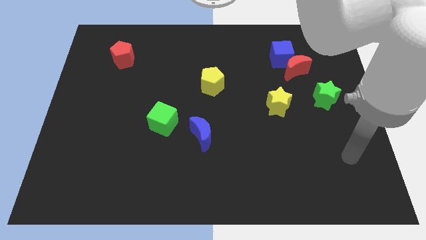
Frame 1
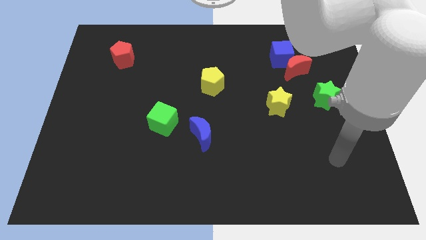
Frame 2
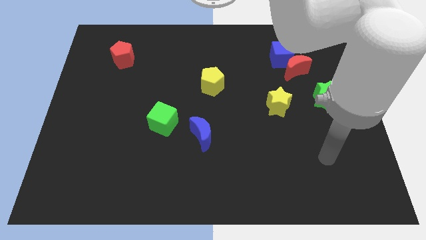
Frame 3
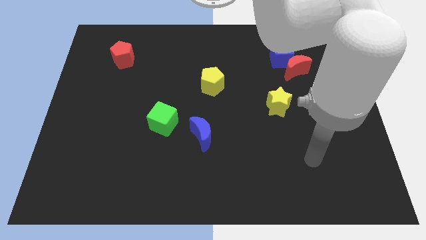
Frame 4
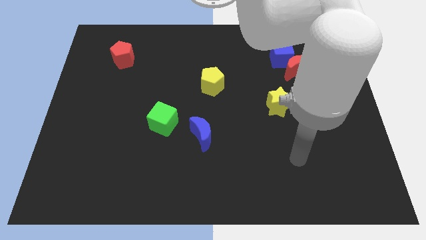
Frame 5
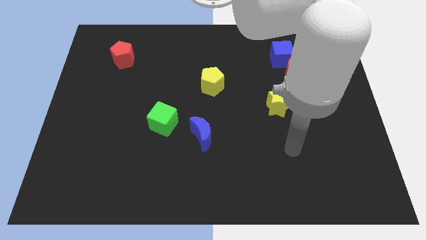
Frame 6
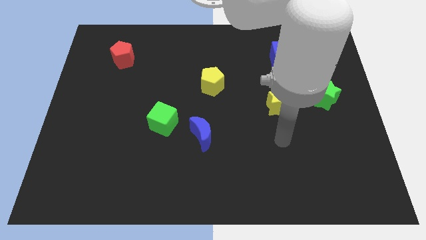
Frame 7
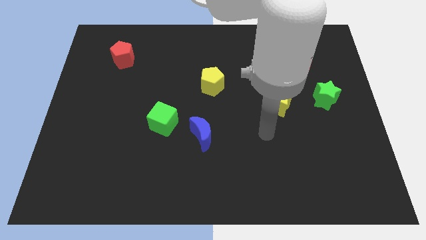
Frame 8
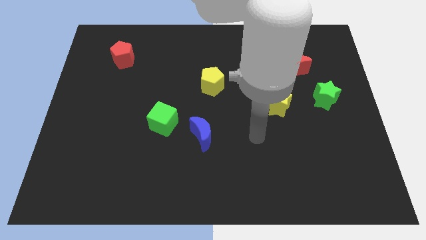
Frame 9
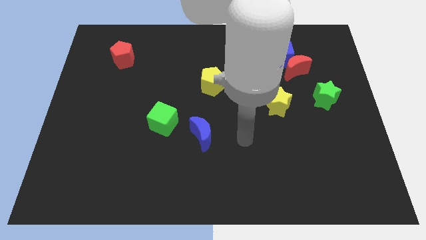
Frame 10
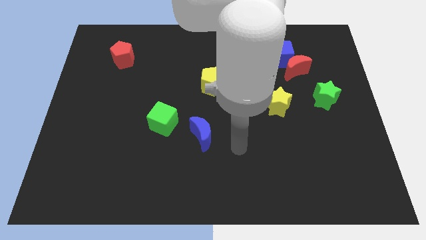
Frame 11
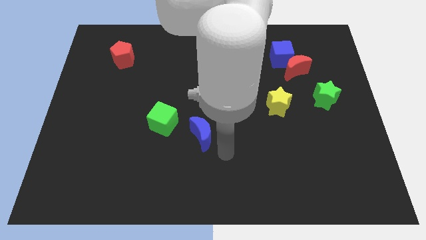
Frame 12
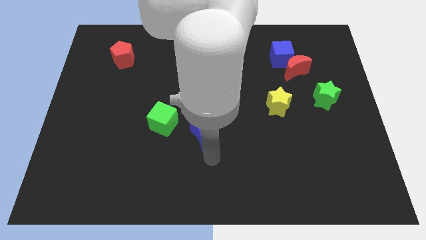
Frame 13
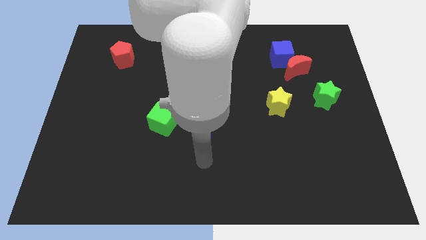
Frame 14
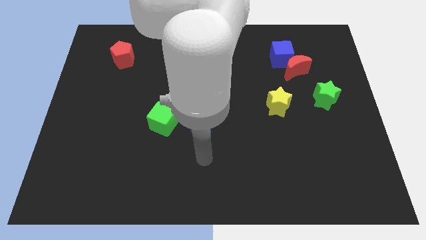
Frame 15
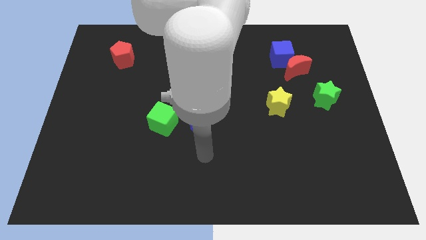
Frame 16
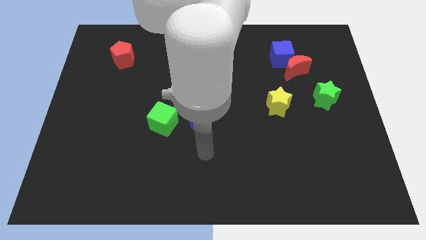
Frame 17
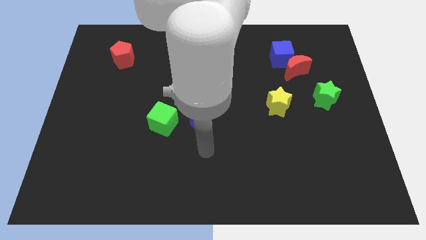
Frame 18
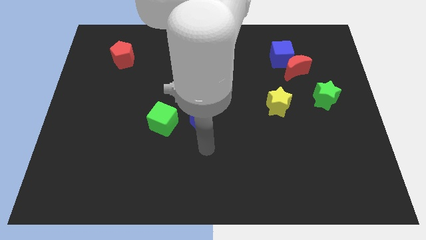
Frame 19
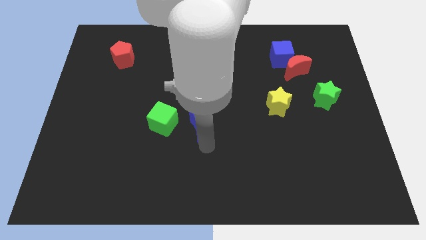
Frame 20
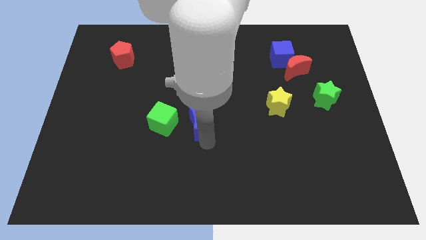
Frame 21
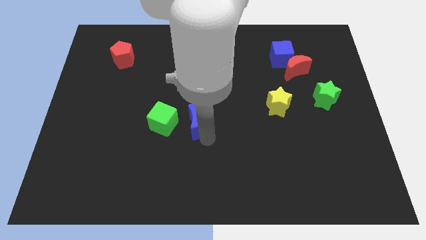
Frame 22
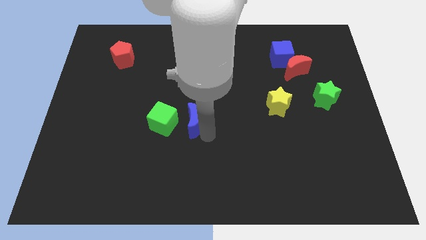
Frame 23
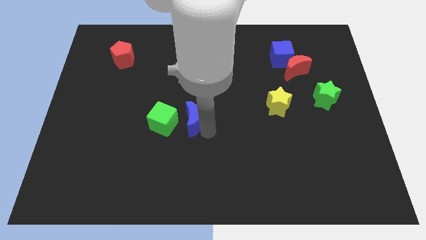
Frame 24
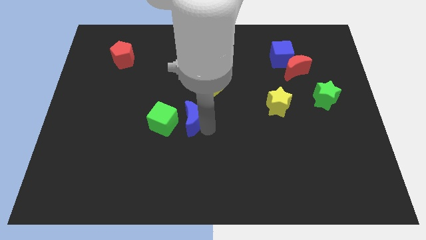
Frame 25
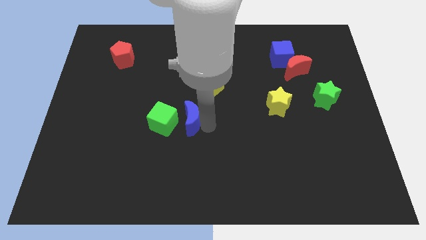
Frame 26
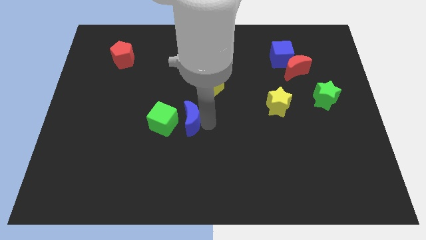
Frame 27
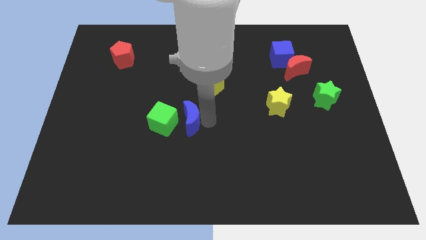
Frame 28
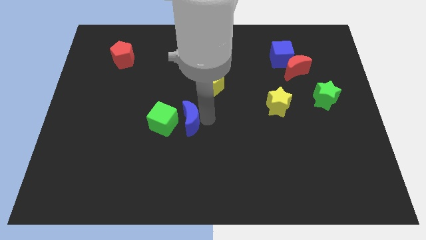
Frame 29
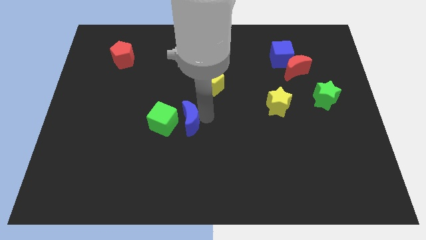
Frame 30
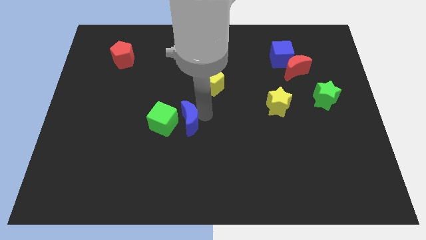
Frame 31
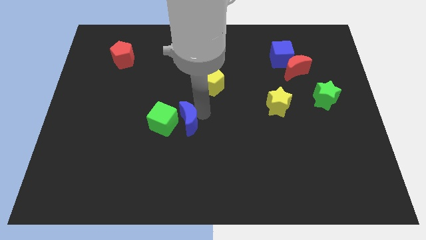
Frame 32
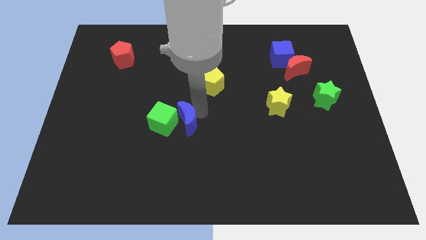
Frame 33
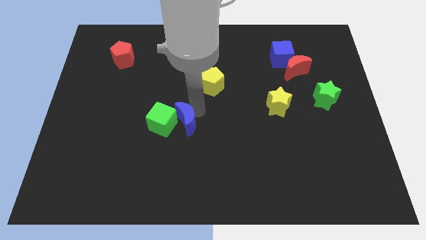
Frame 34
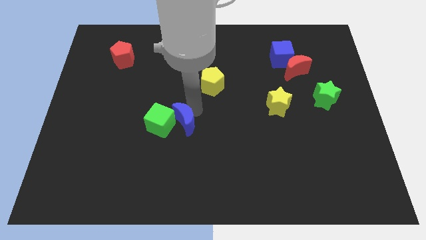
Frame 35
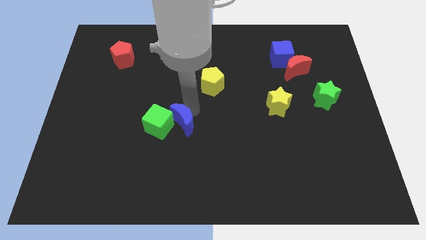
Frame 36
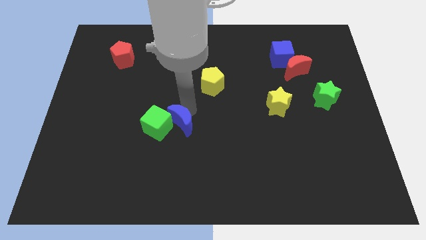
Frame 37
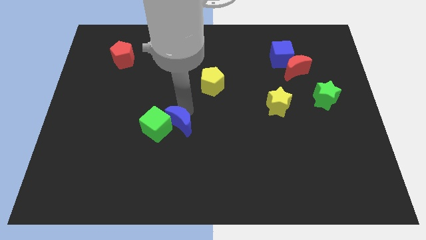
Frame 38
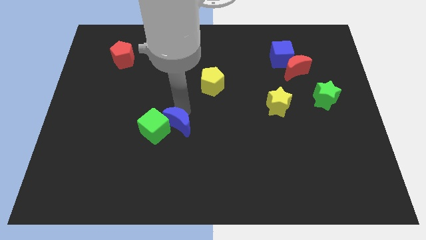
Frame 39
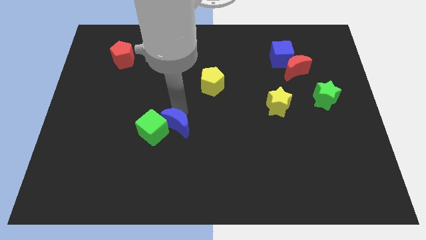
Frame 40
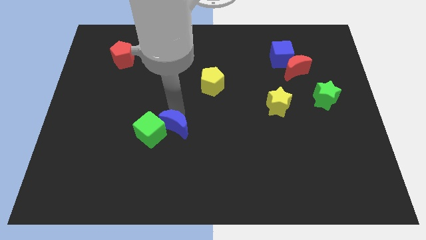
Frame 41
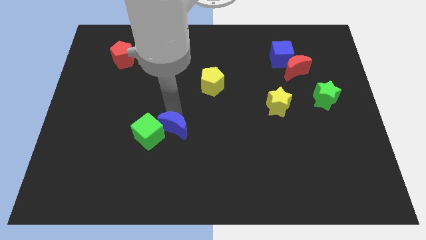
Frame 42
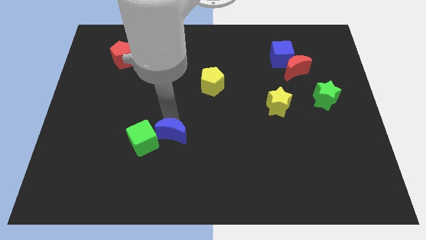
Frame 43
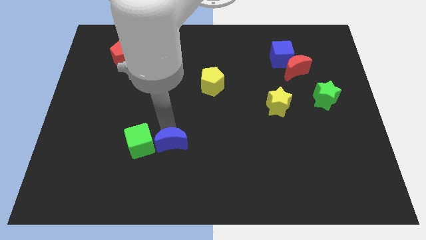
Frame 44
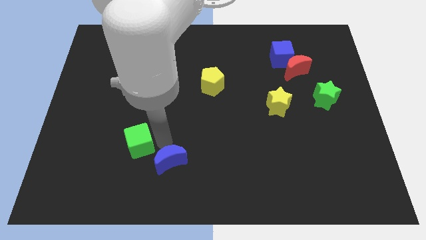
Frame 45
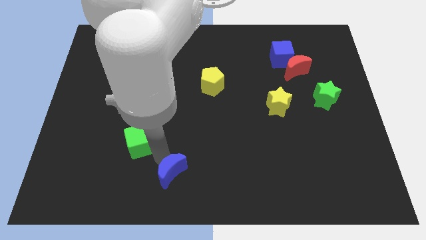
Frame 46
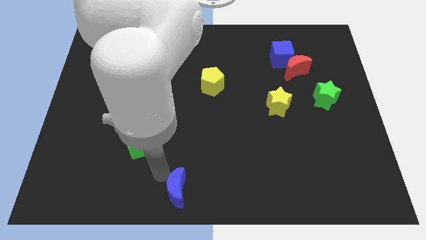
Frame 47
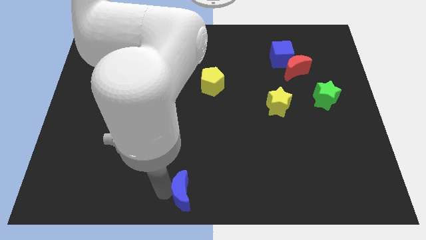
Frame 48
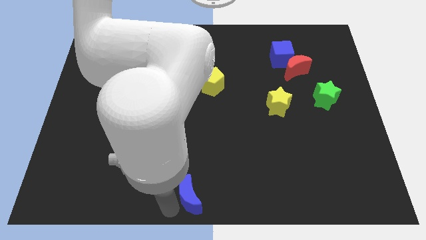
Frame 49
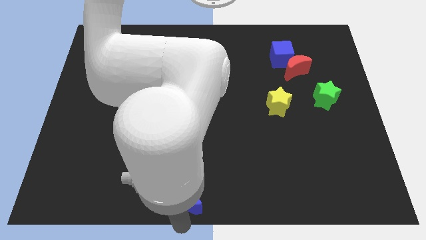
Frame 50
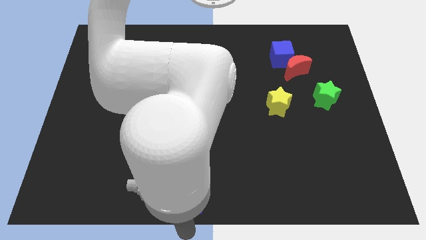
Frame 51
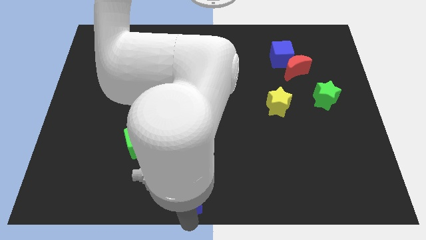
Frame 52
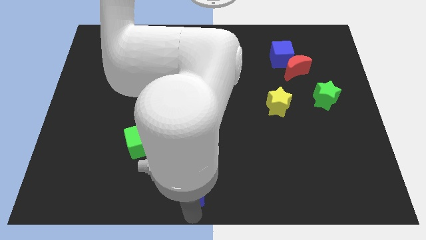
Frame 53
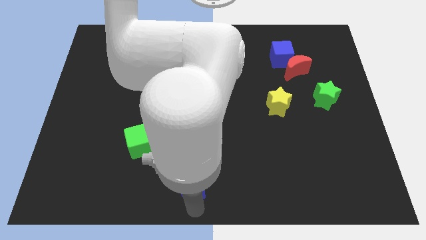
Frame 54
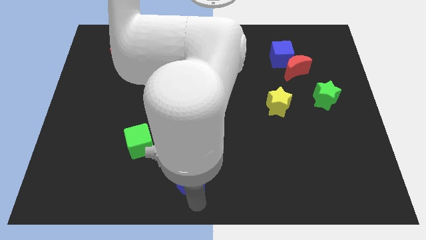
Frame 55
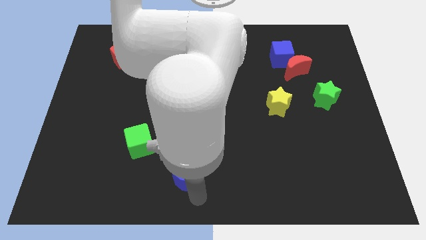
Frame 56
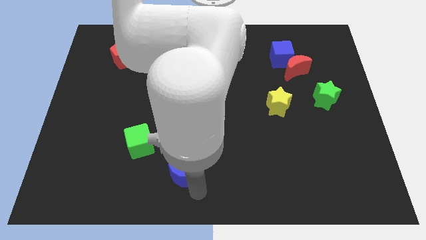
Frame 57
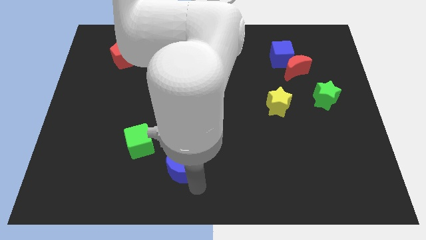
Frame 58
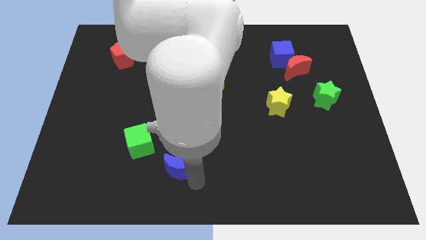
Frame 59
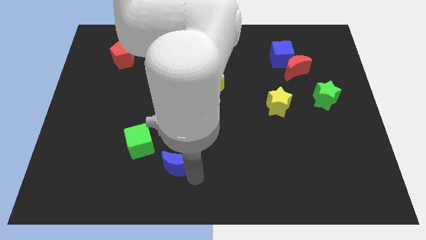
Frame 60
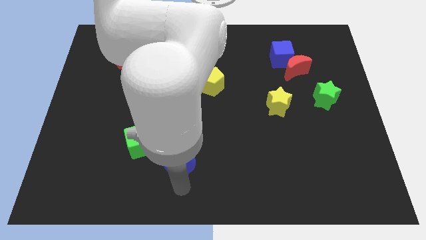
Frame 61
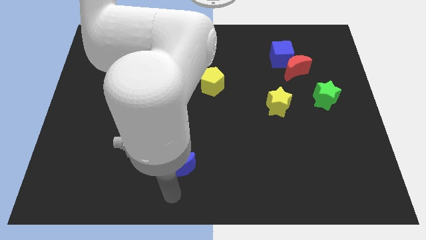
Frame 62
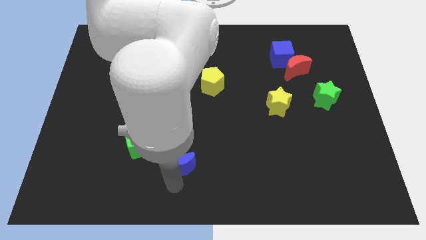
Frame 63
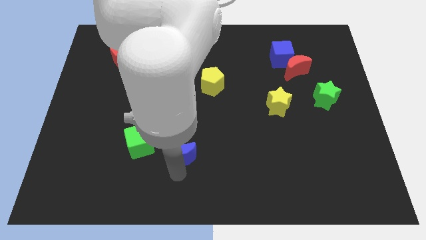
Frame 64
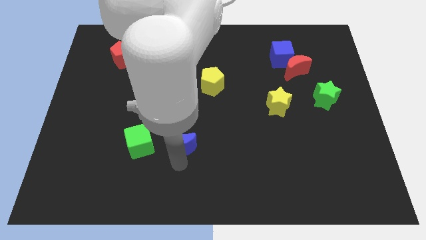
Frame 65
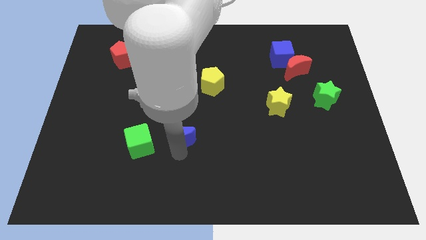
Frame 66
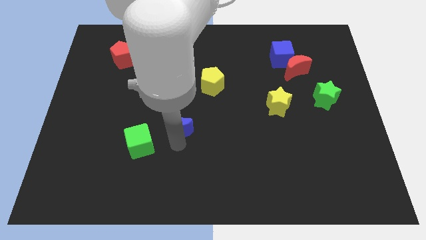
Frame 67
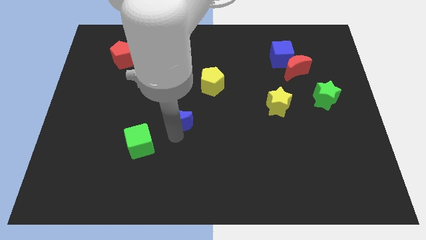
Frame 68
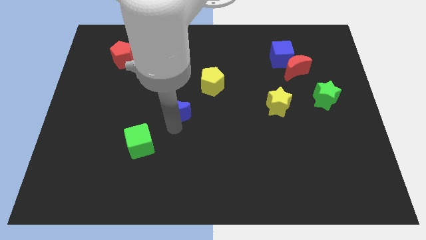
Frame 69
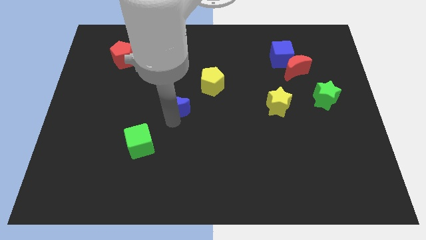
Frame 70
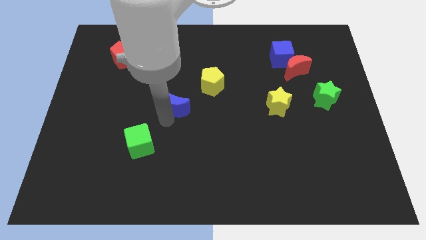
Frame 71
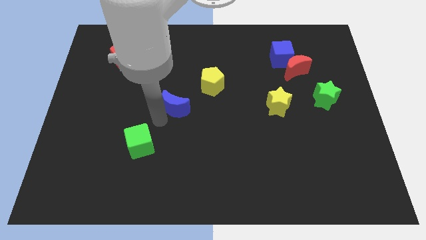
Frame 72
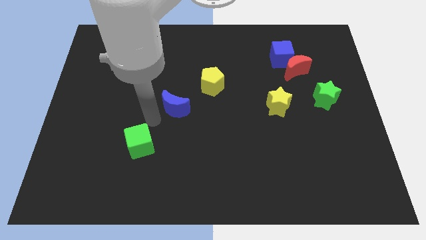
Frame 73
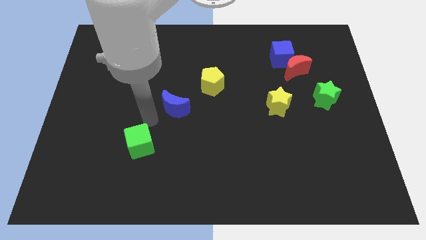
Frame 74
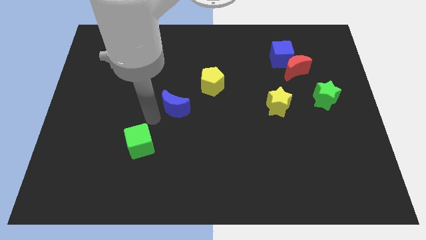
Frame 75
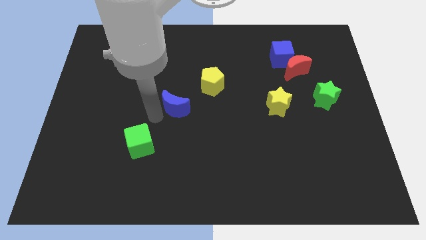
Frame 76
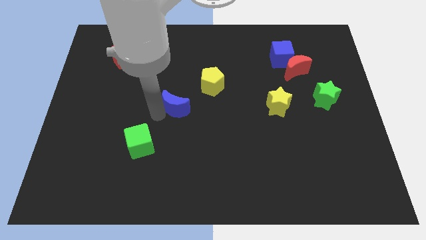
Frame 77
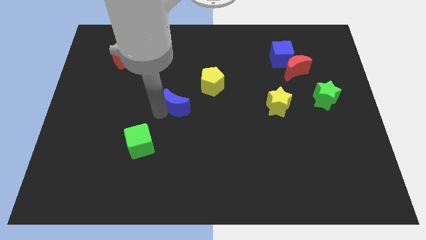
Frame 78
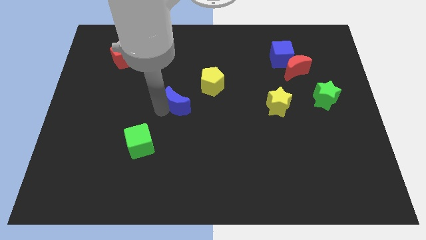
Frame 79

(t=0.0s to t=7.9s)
push the blue moon a little bit upwards
